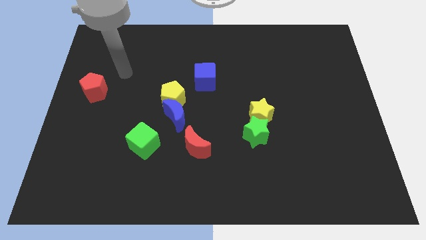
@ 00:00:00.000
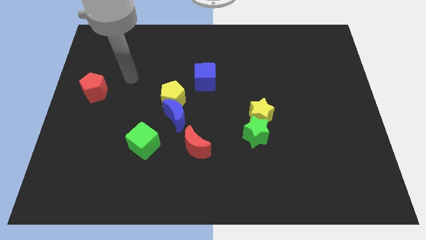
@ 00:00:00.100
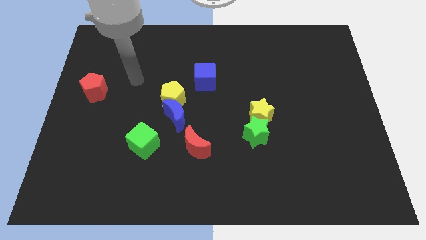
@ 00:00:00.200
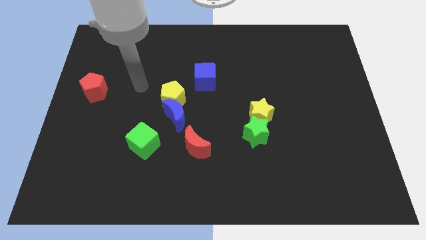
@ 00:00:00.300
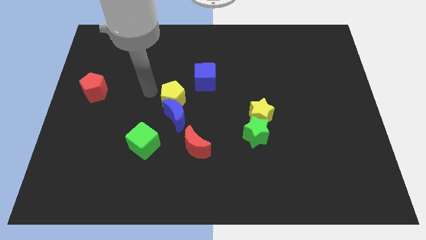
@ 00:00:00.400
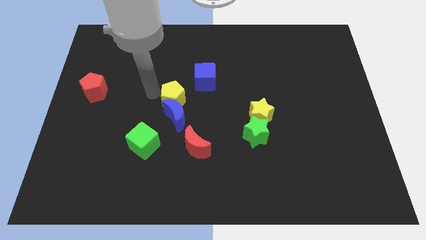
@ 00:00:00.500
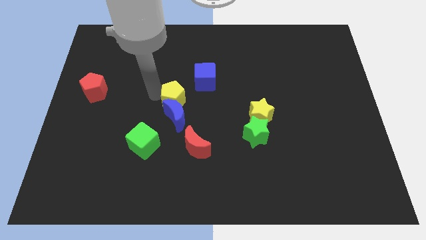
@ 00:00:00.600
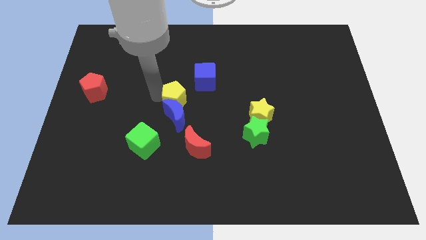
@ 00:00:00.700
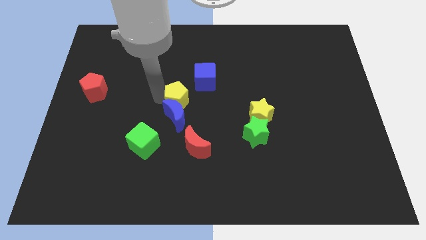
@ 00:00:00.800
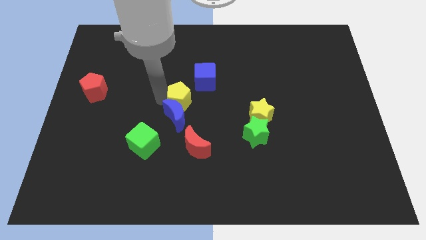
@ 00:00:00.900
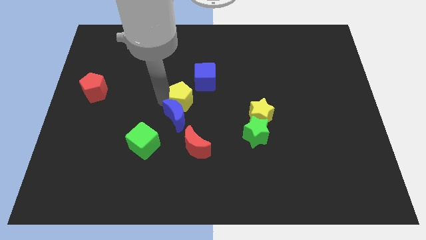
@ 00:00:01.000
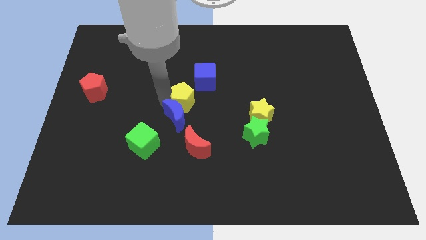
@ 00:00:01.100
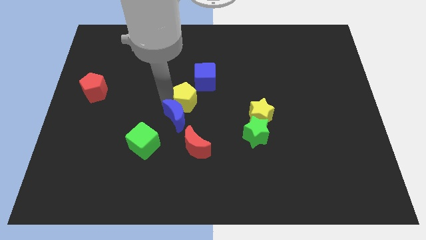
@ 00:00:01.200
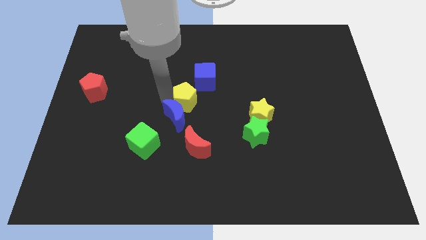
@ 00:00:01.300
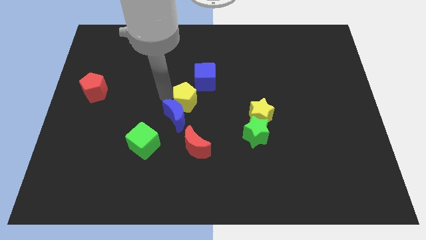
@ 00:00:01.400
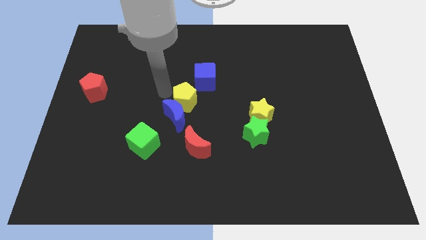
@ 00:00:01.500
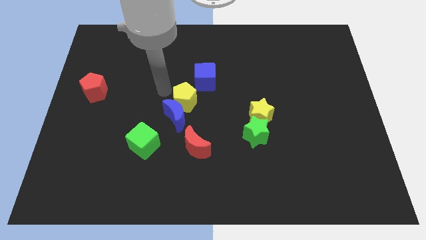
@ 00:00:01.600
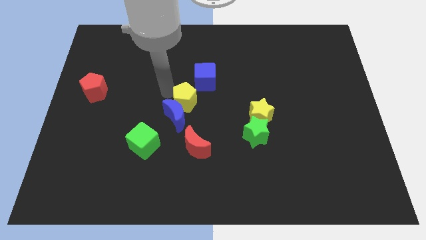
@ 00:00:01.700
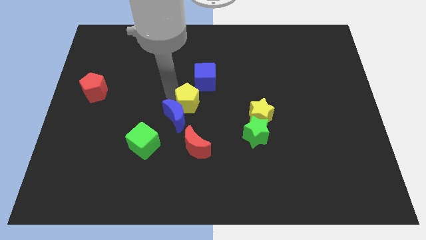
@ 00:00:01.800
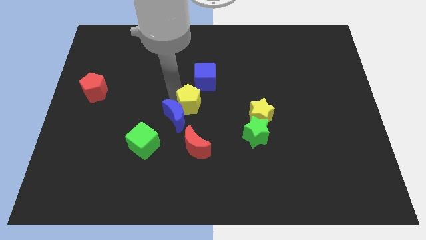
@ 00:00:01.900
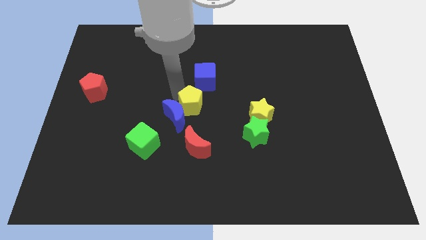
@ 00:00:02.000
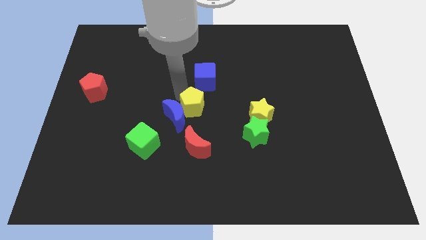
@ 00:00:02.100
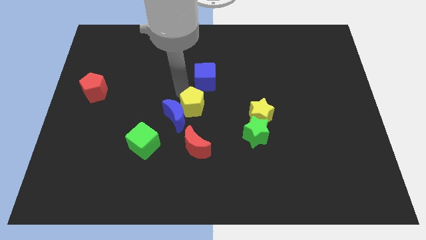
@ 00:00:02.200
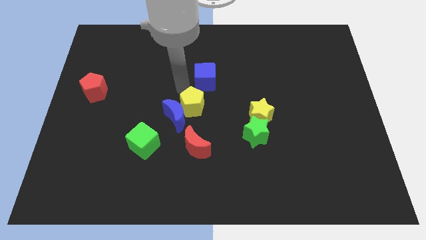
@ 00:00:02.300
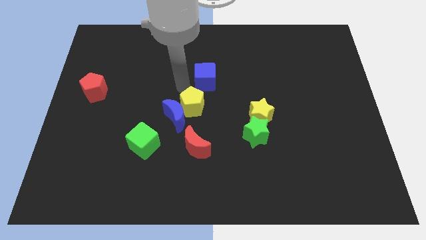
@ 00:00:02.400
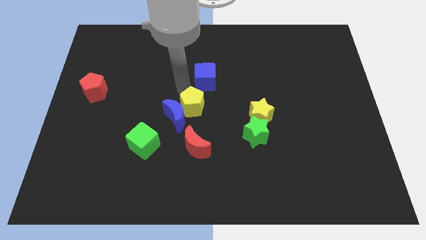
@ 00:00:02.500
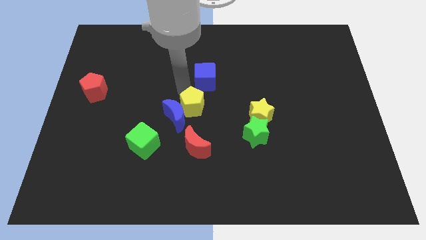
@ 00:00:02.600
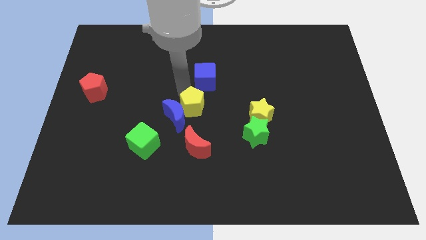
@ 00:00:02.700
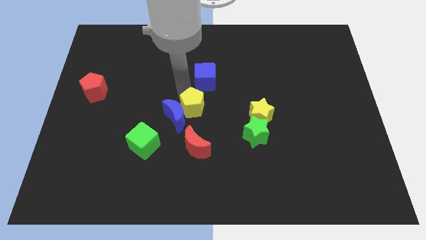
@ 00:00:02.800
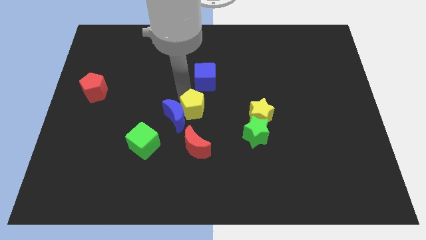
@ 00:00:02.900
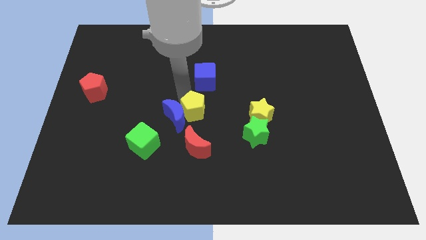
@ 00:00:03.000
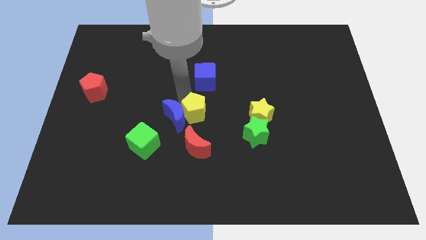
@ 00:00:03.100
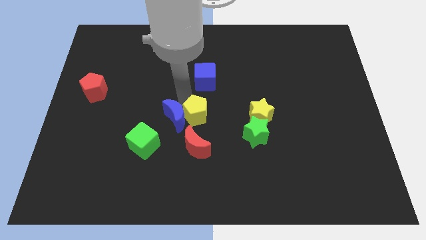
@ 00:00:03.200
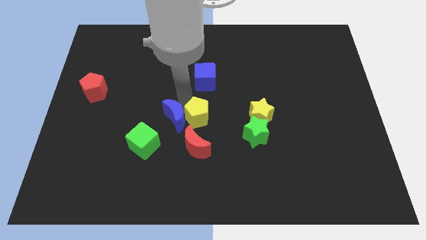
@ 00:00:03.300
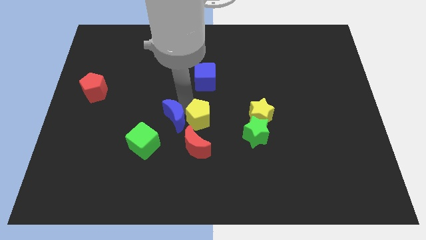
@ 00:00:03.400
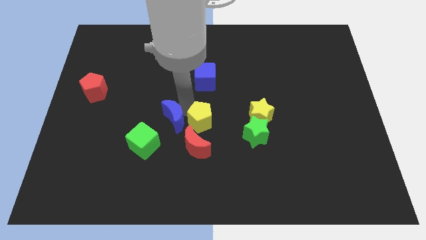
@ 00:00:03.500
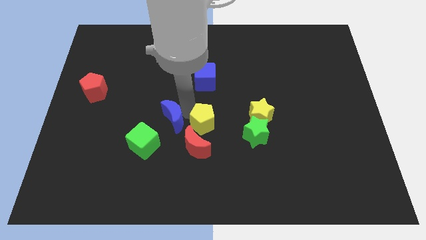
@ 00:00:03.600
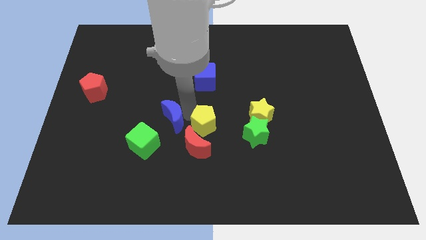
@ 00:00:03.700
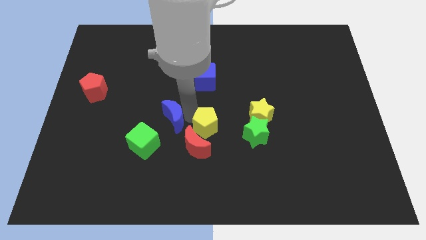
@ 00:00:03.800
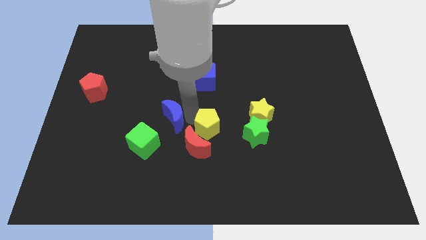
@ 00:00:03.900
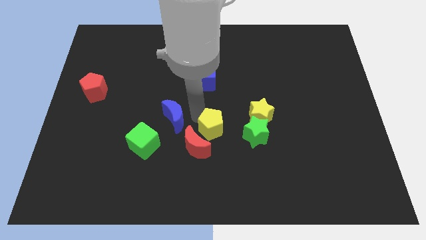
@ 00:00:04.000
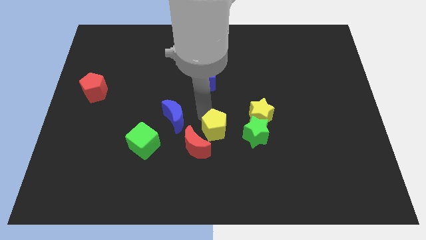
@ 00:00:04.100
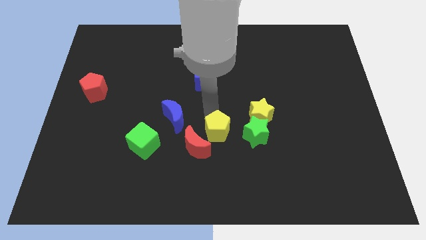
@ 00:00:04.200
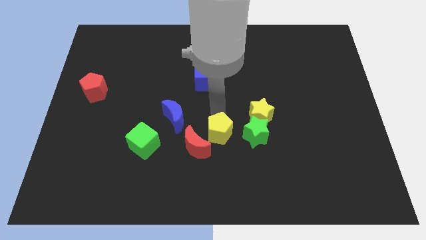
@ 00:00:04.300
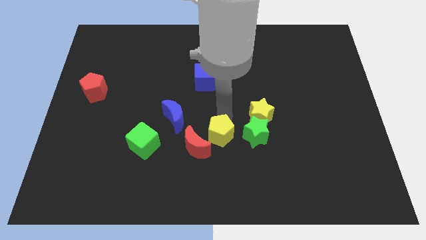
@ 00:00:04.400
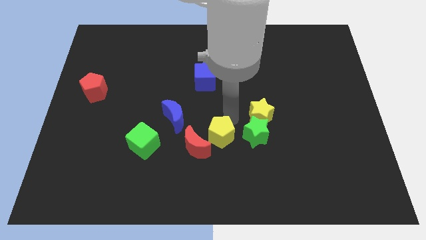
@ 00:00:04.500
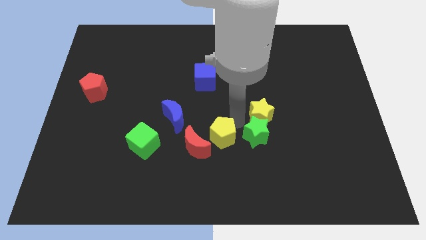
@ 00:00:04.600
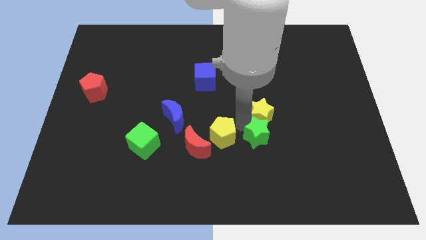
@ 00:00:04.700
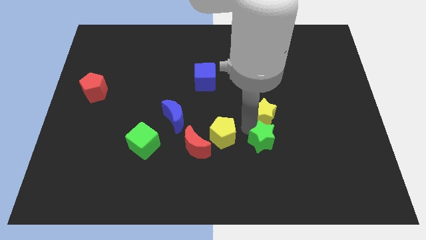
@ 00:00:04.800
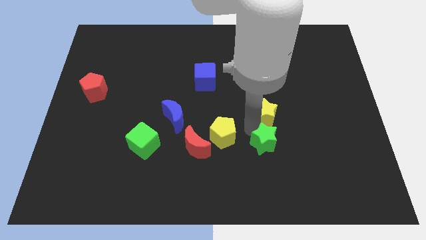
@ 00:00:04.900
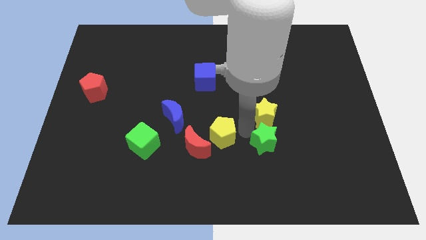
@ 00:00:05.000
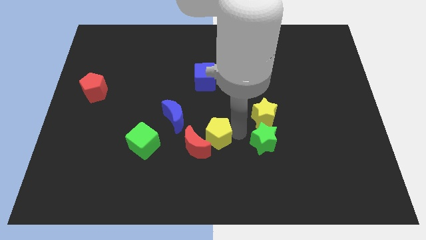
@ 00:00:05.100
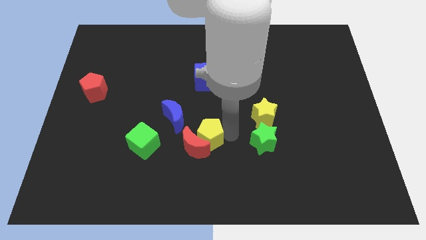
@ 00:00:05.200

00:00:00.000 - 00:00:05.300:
slide the yellow pentagon right of the green cube
